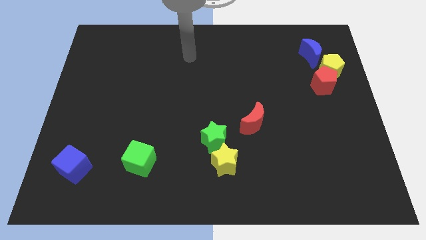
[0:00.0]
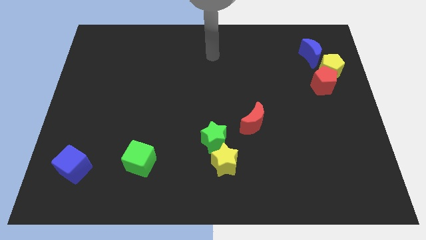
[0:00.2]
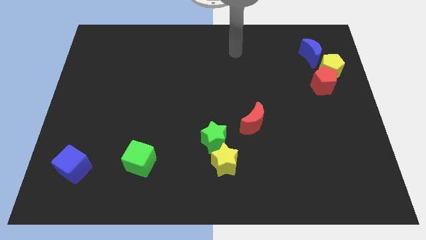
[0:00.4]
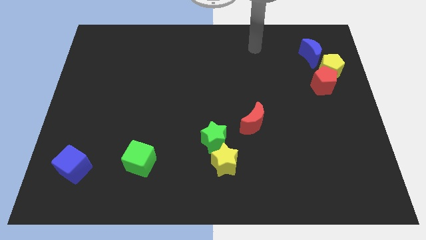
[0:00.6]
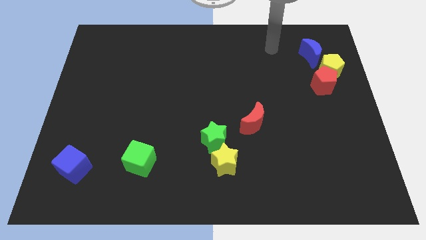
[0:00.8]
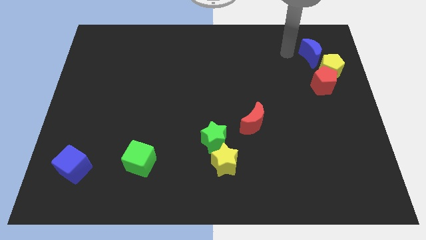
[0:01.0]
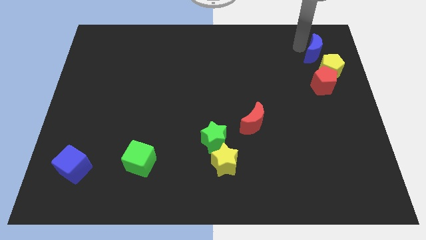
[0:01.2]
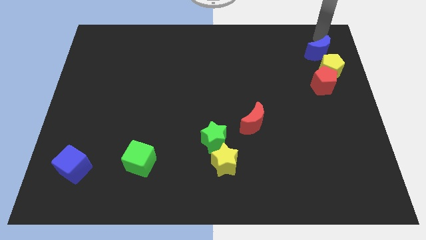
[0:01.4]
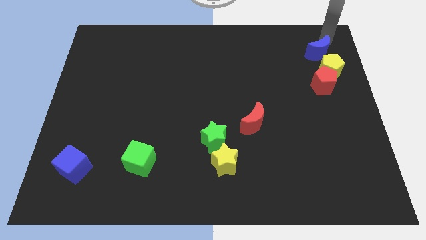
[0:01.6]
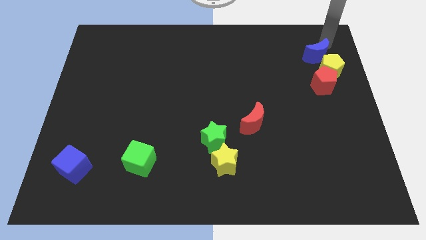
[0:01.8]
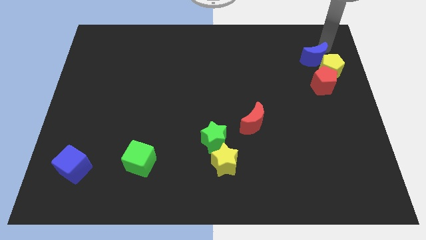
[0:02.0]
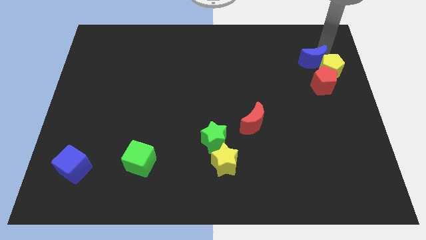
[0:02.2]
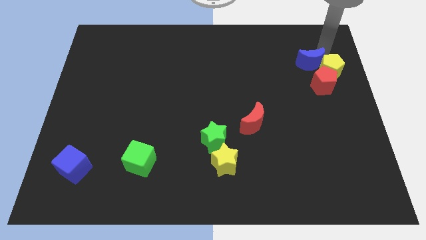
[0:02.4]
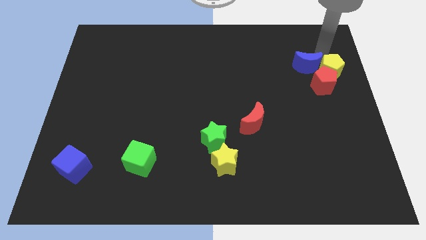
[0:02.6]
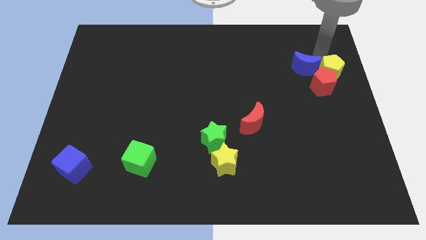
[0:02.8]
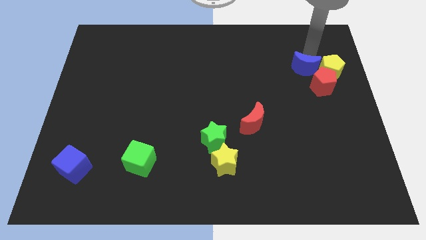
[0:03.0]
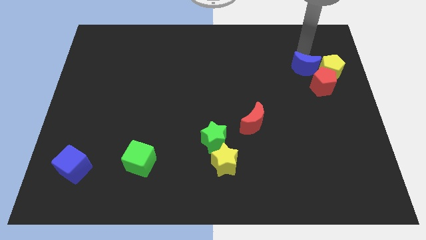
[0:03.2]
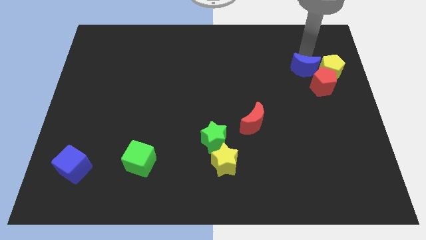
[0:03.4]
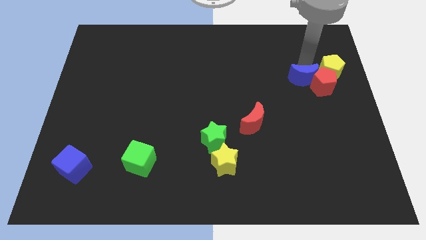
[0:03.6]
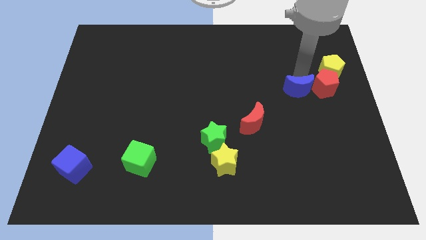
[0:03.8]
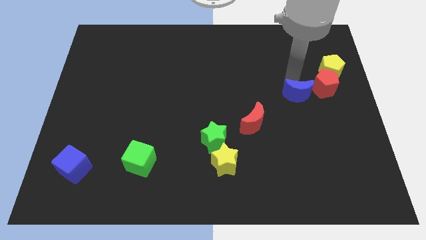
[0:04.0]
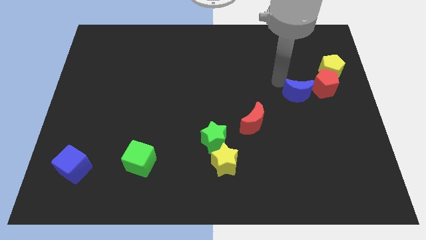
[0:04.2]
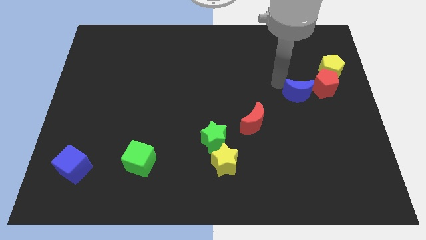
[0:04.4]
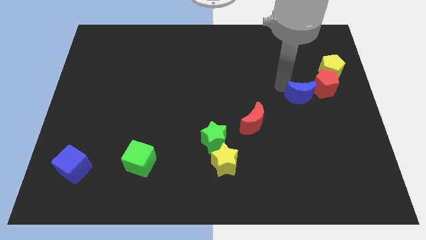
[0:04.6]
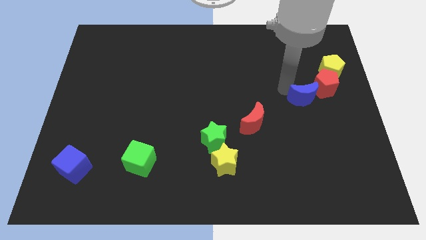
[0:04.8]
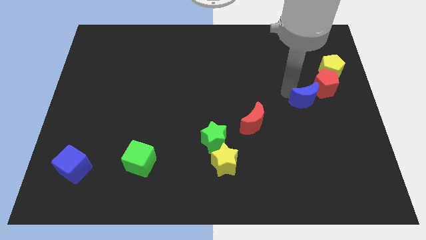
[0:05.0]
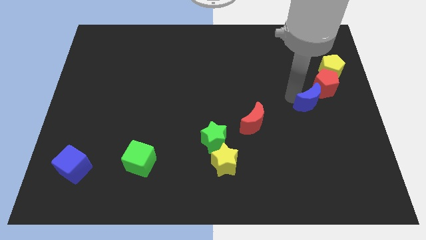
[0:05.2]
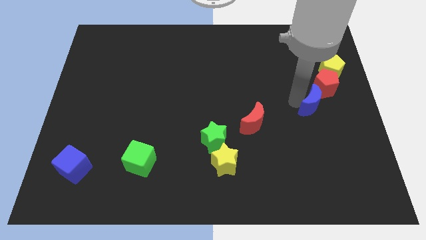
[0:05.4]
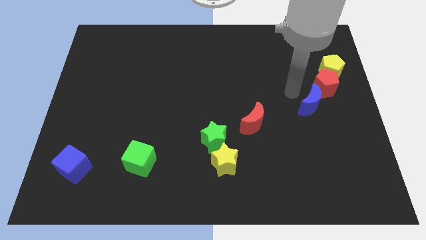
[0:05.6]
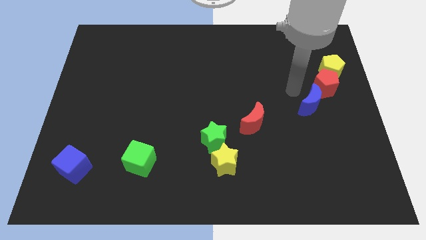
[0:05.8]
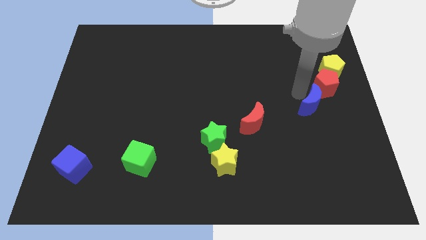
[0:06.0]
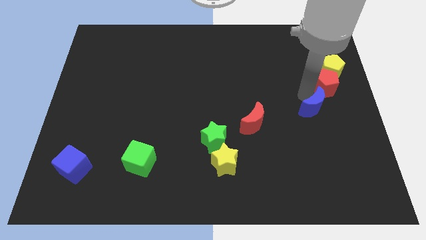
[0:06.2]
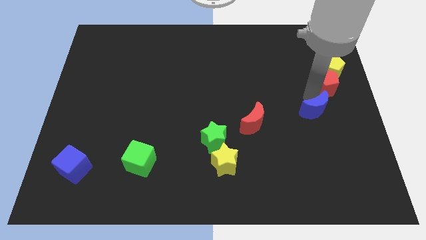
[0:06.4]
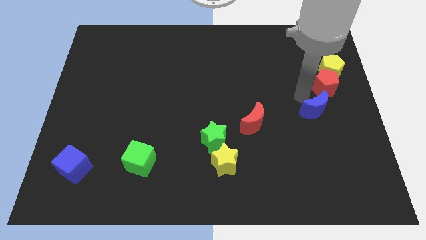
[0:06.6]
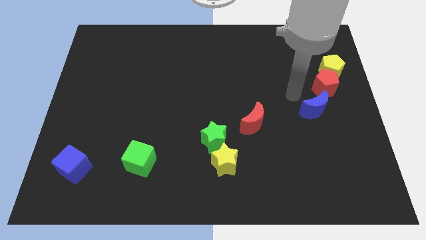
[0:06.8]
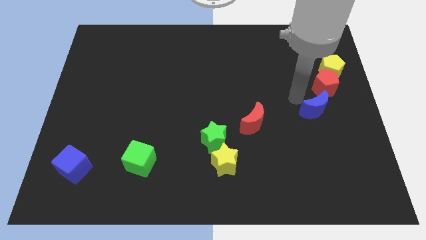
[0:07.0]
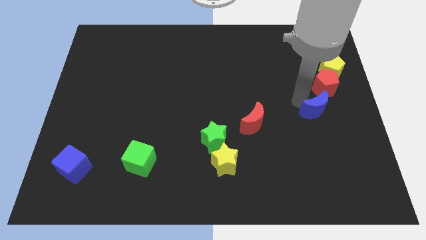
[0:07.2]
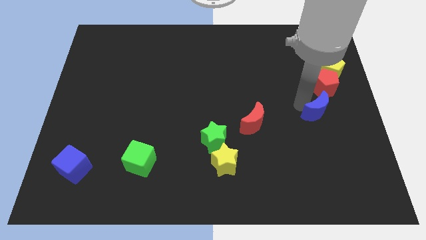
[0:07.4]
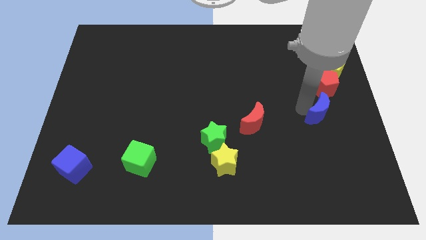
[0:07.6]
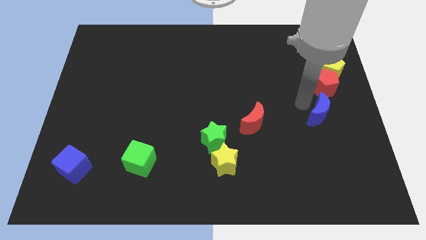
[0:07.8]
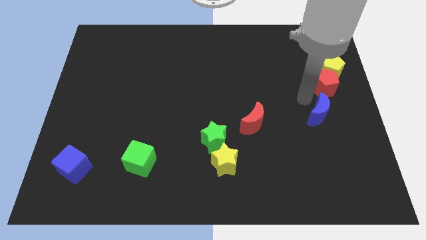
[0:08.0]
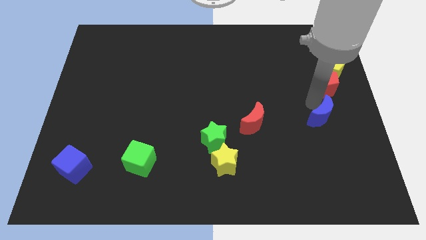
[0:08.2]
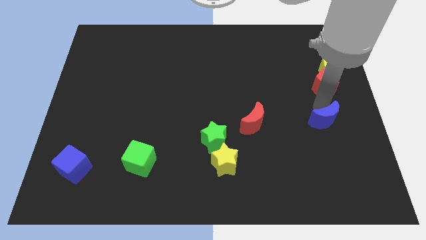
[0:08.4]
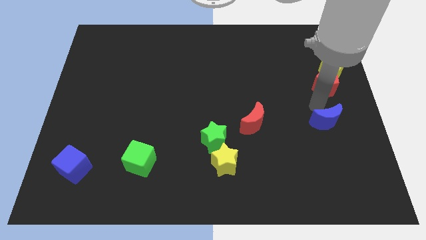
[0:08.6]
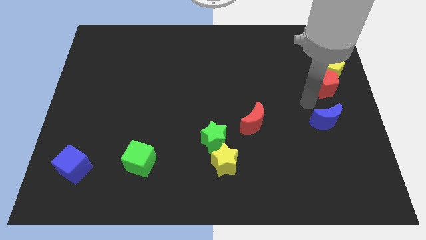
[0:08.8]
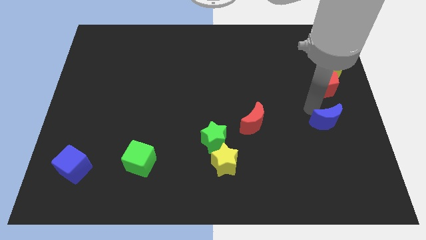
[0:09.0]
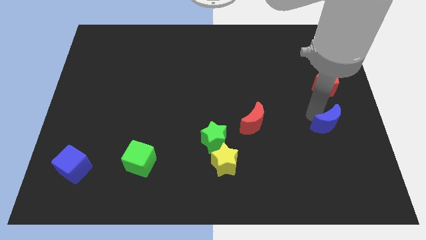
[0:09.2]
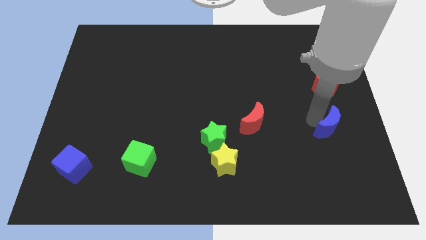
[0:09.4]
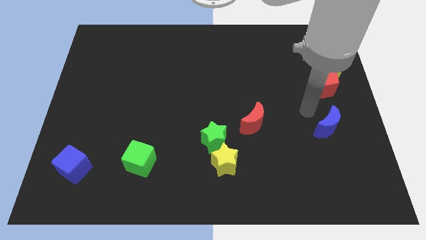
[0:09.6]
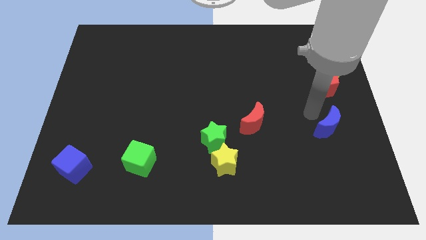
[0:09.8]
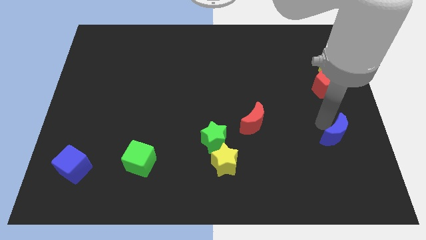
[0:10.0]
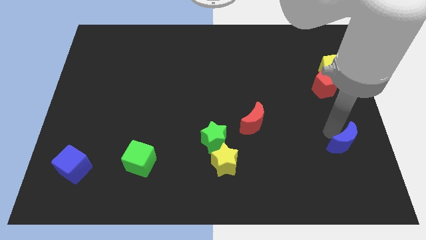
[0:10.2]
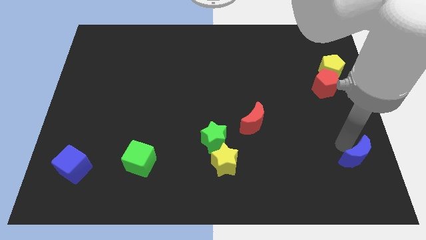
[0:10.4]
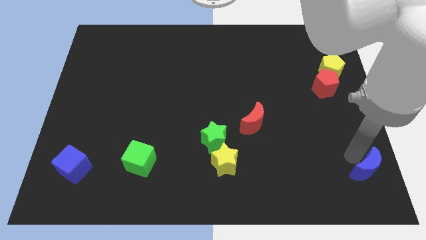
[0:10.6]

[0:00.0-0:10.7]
put the blue moon to the bottom right corner

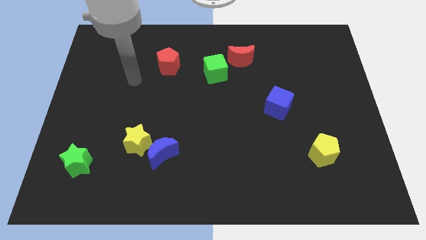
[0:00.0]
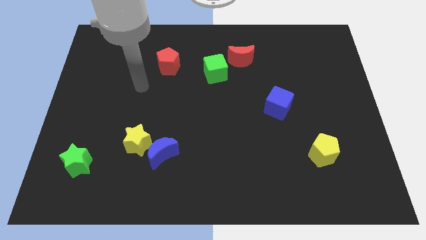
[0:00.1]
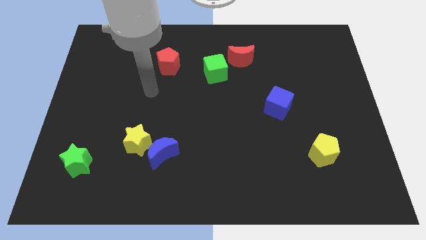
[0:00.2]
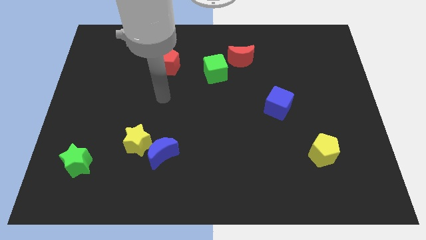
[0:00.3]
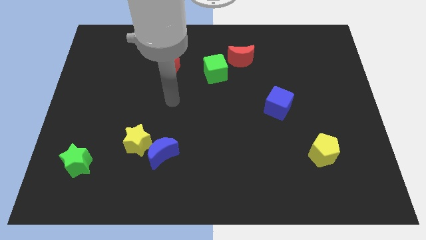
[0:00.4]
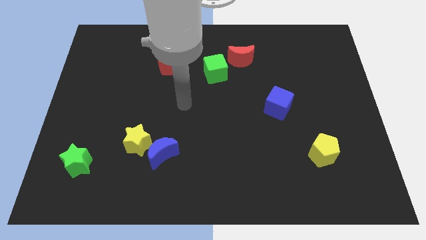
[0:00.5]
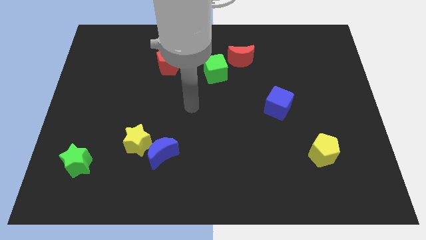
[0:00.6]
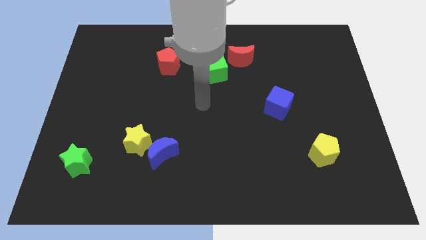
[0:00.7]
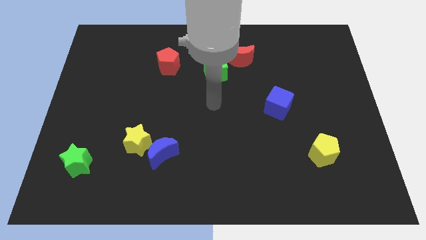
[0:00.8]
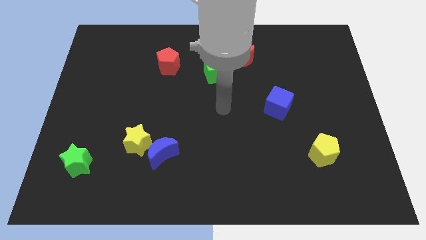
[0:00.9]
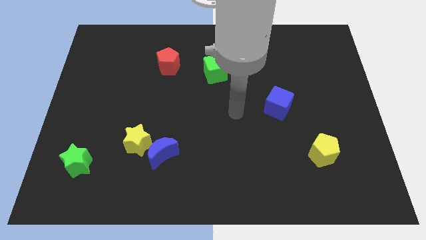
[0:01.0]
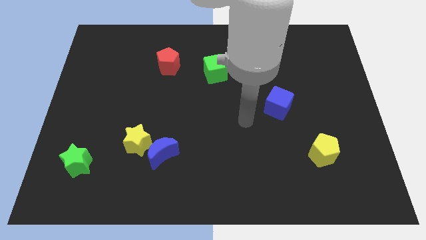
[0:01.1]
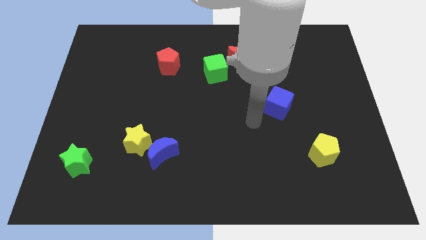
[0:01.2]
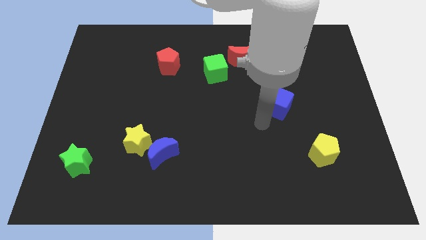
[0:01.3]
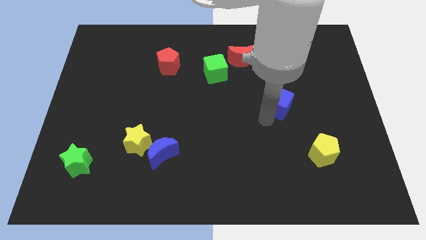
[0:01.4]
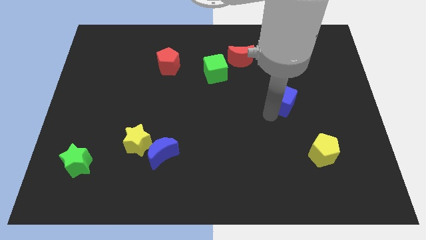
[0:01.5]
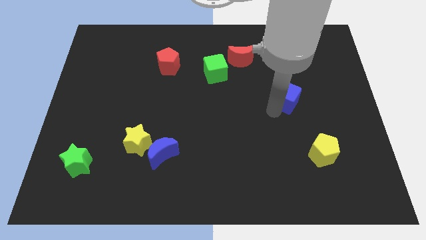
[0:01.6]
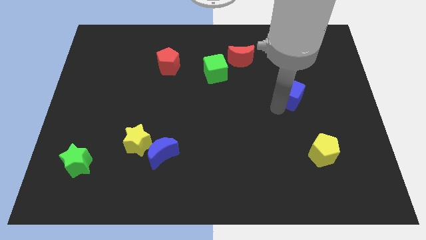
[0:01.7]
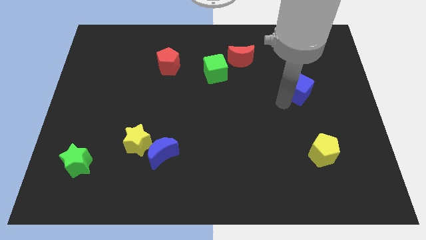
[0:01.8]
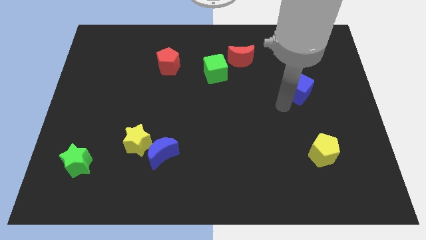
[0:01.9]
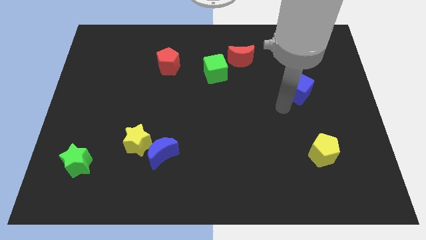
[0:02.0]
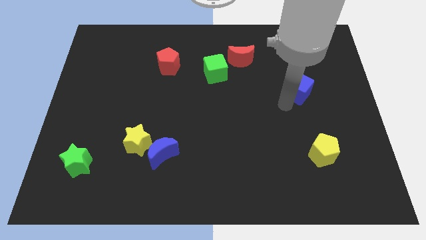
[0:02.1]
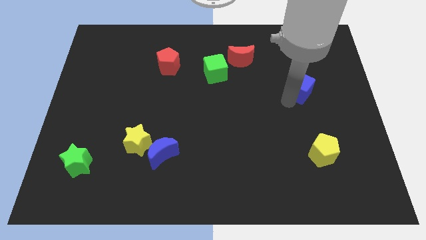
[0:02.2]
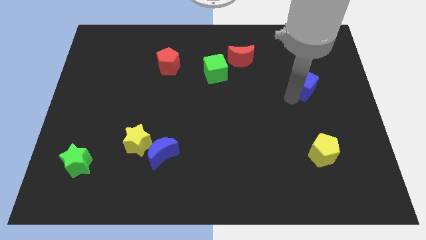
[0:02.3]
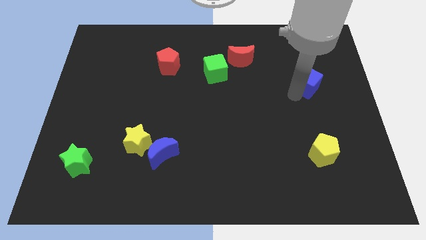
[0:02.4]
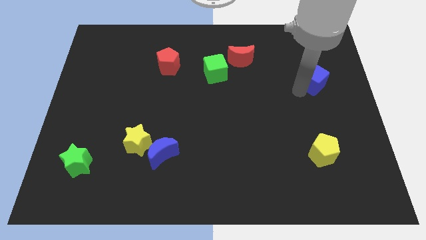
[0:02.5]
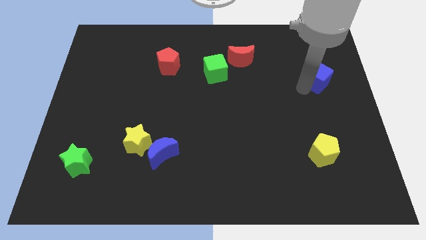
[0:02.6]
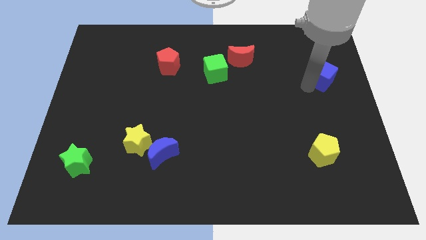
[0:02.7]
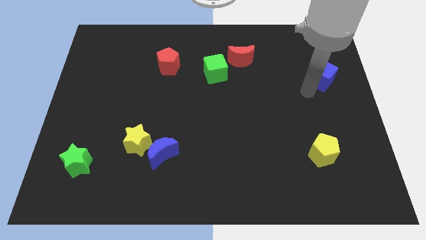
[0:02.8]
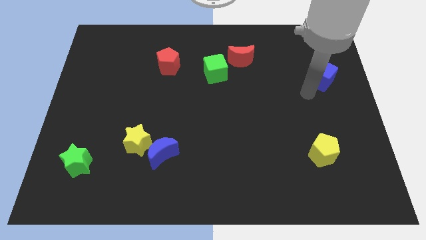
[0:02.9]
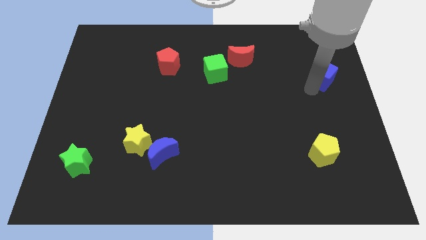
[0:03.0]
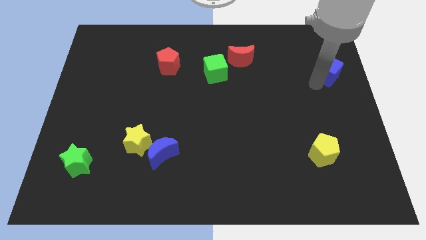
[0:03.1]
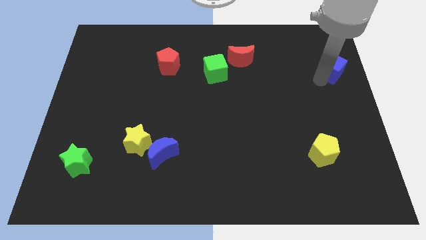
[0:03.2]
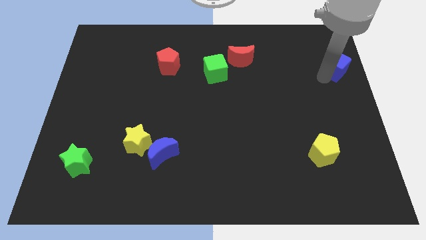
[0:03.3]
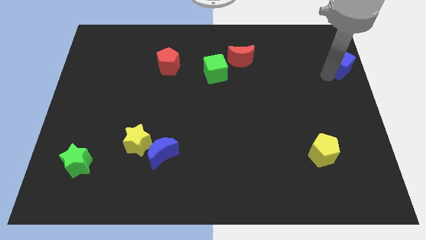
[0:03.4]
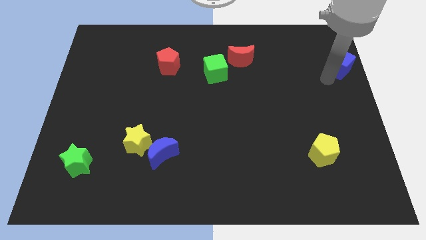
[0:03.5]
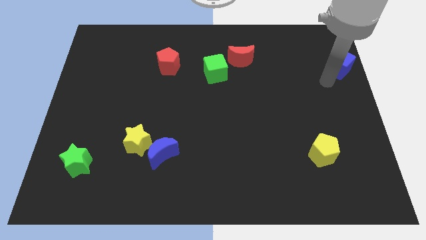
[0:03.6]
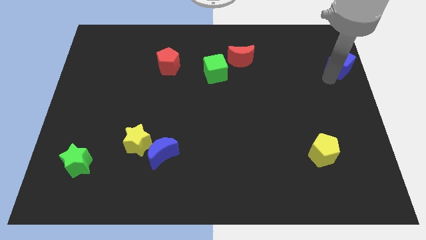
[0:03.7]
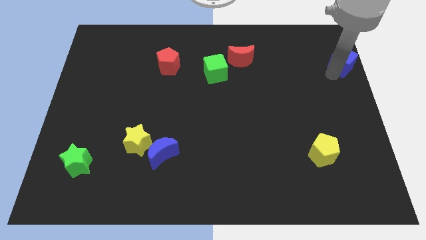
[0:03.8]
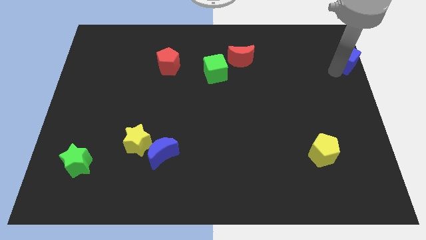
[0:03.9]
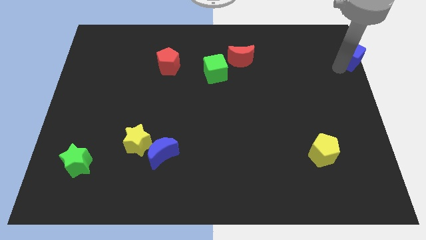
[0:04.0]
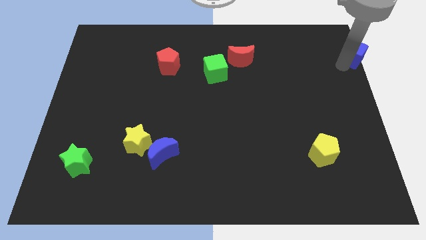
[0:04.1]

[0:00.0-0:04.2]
push the blue cube to the top right
